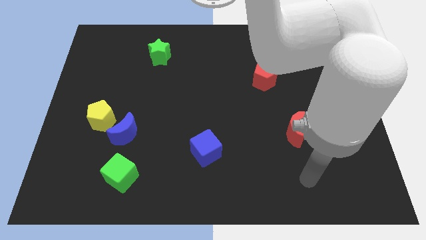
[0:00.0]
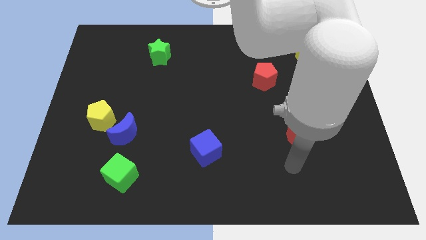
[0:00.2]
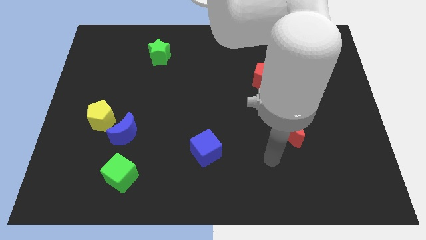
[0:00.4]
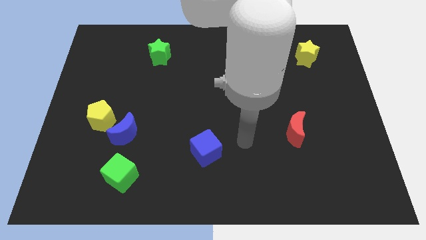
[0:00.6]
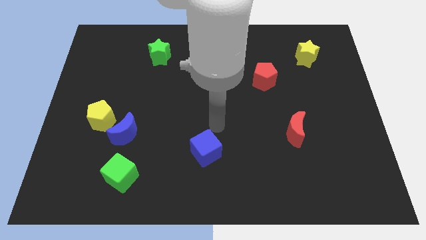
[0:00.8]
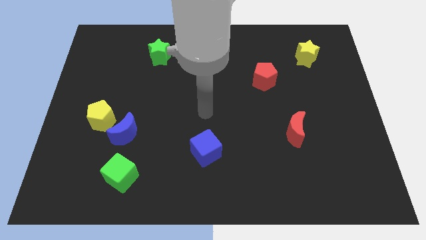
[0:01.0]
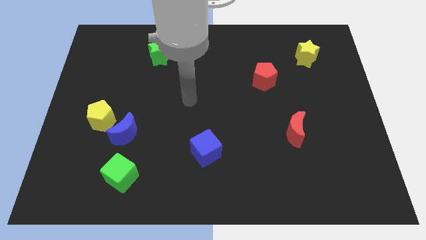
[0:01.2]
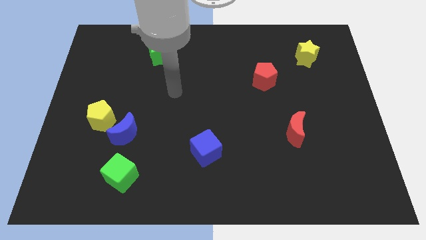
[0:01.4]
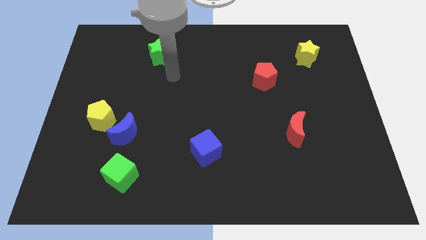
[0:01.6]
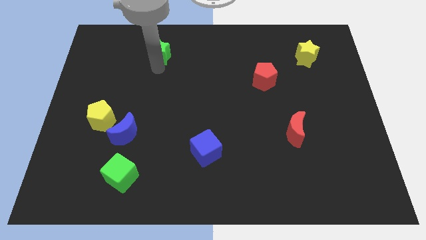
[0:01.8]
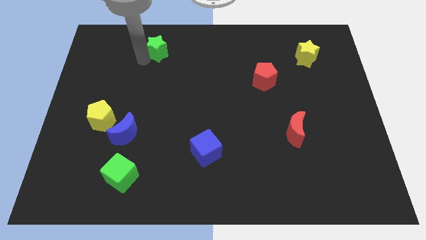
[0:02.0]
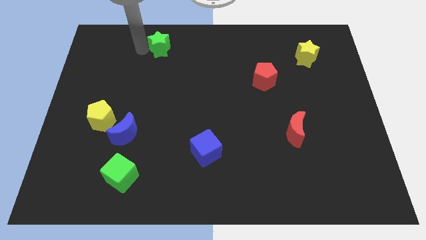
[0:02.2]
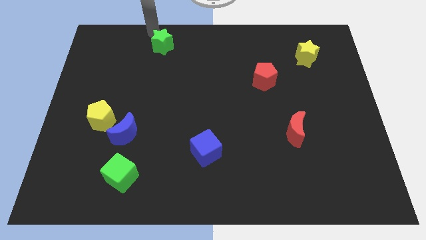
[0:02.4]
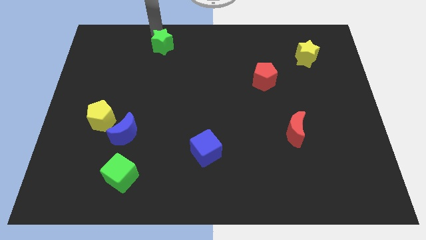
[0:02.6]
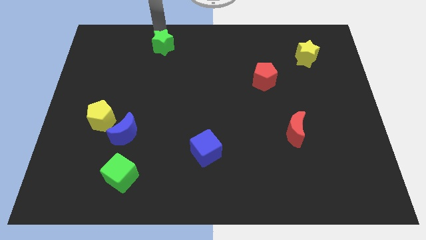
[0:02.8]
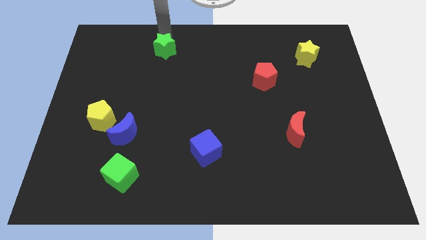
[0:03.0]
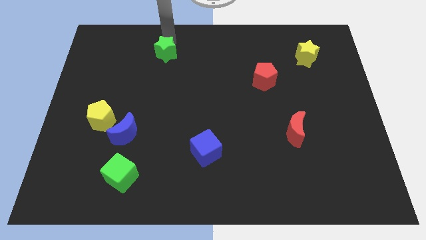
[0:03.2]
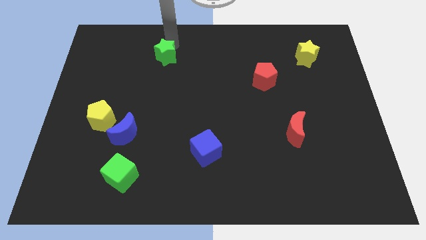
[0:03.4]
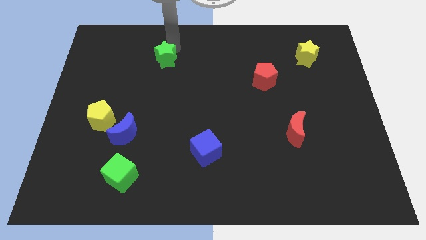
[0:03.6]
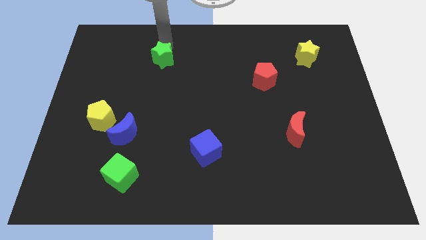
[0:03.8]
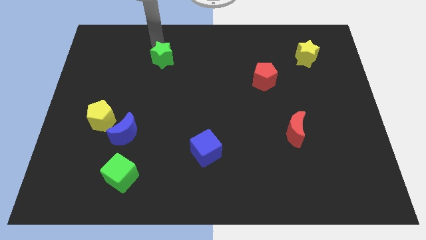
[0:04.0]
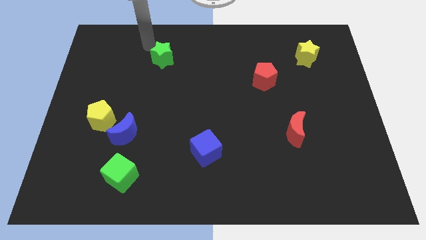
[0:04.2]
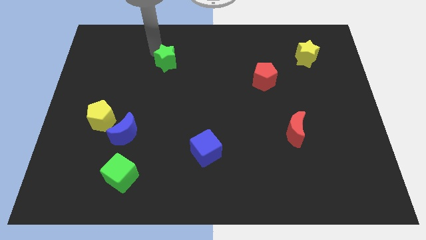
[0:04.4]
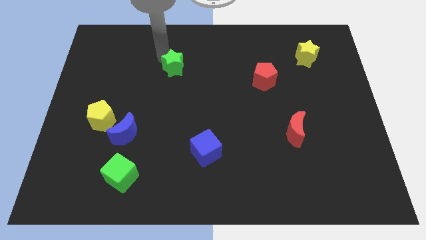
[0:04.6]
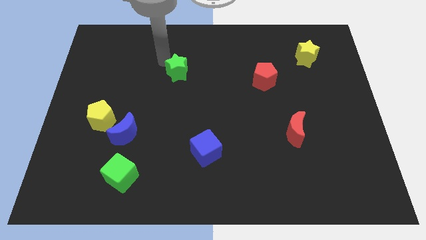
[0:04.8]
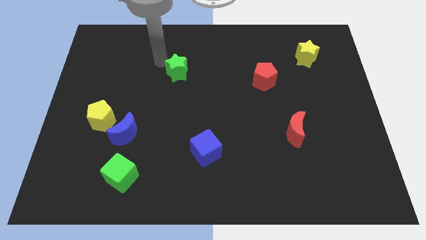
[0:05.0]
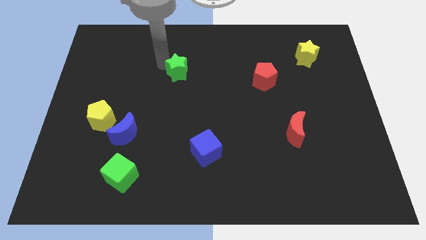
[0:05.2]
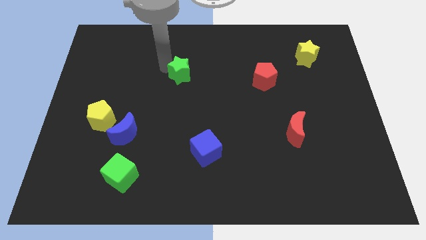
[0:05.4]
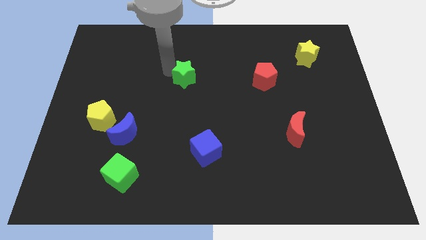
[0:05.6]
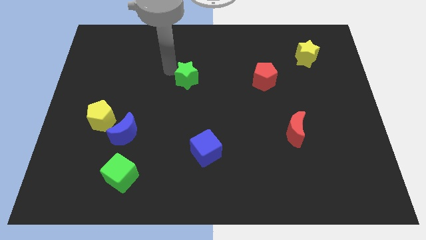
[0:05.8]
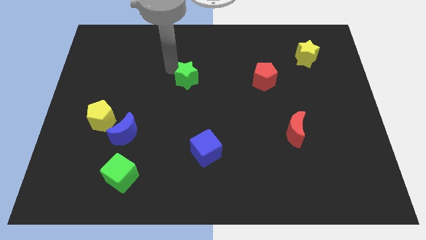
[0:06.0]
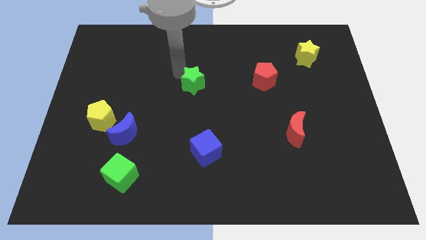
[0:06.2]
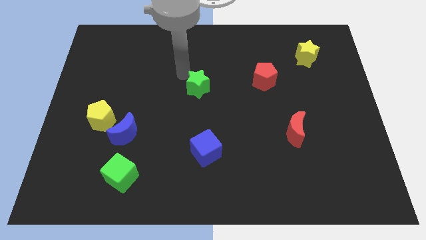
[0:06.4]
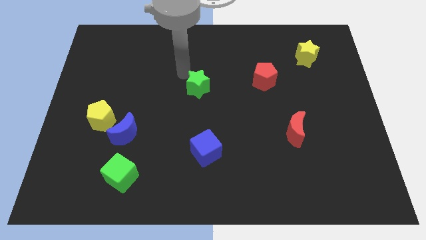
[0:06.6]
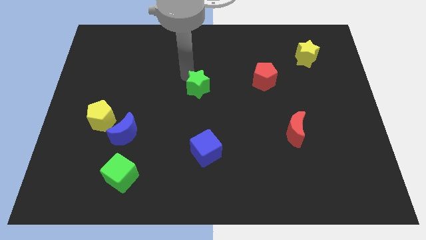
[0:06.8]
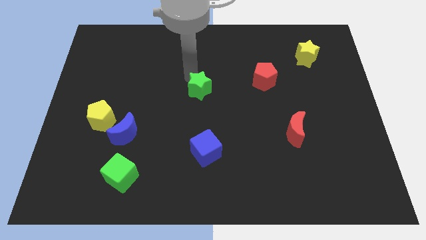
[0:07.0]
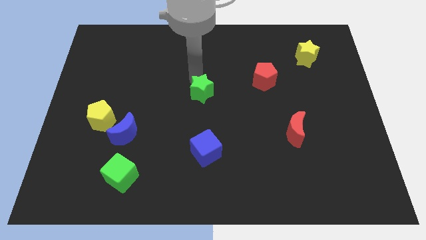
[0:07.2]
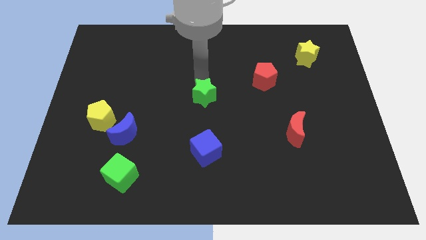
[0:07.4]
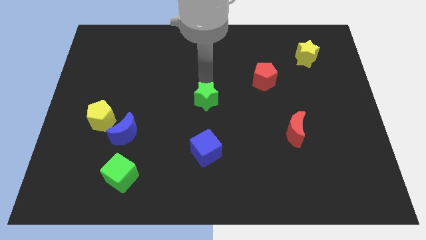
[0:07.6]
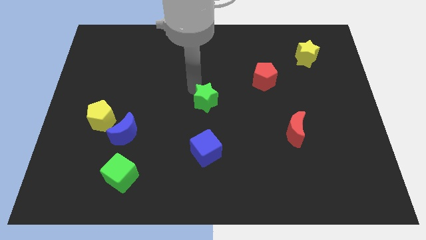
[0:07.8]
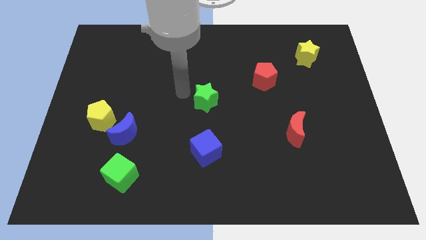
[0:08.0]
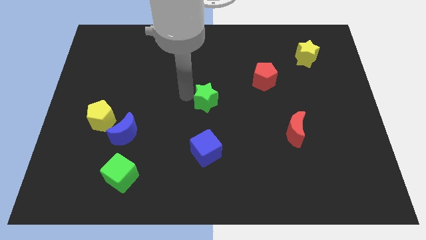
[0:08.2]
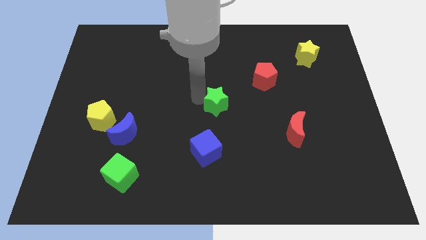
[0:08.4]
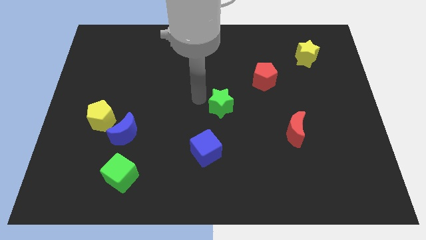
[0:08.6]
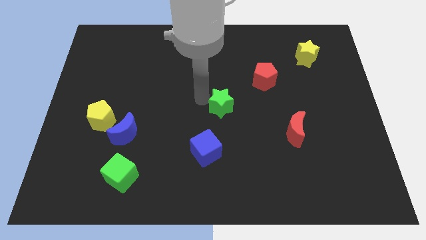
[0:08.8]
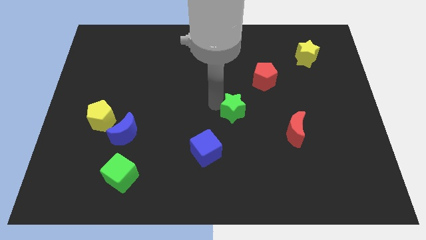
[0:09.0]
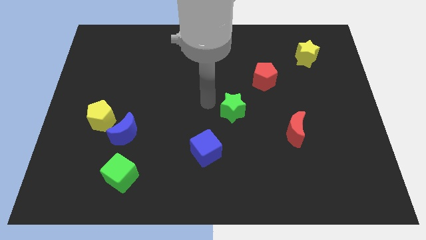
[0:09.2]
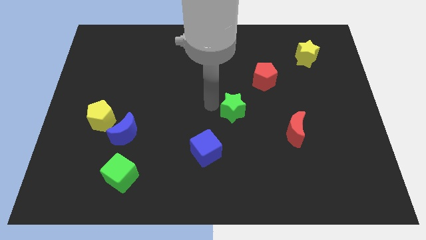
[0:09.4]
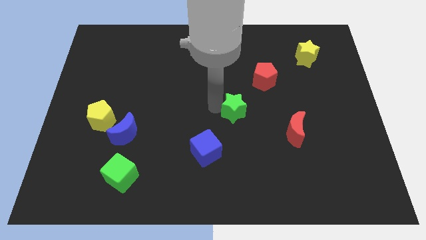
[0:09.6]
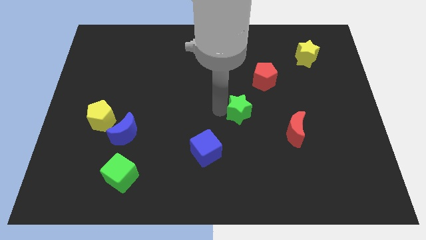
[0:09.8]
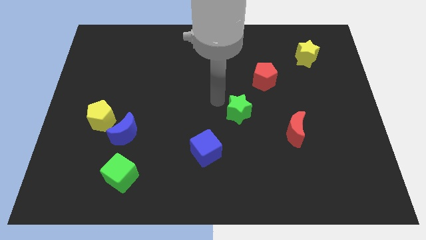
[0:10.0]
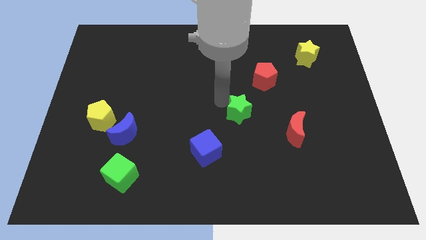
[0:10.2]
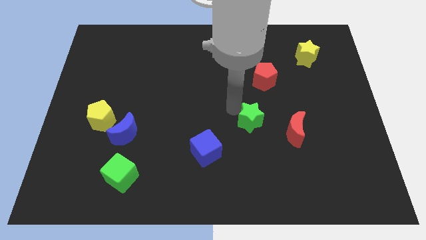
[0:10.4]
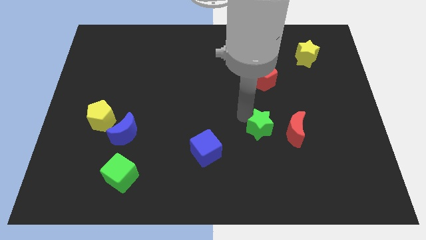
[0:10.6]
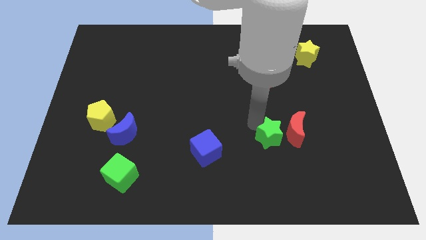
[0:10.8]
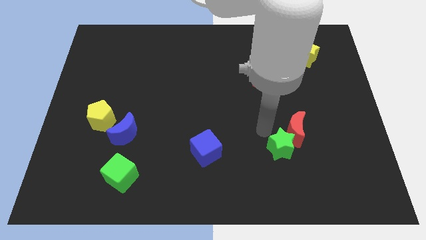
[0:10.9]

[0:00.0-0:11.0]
slide the green star below the red moon

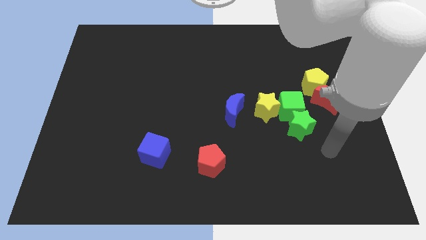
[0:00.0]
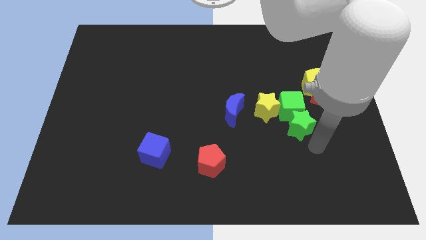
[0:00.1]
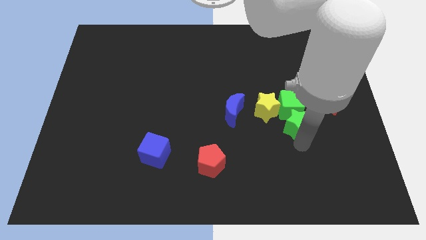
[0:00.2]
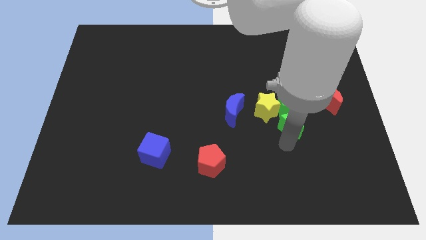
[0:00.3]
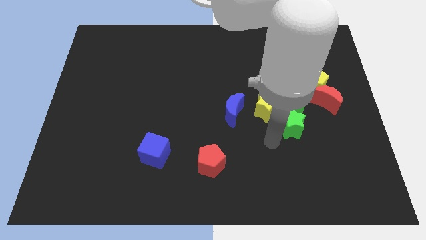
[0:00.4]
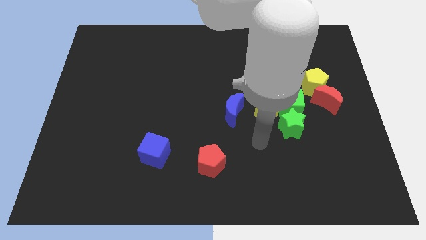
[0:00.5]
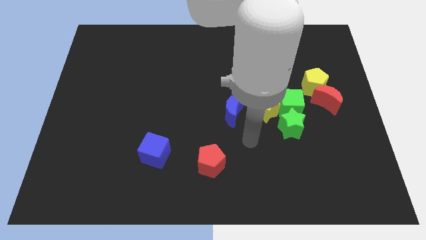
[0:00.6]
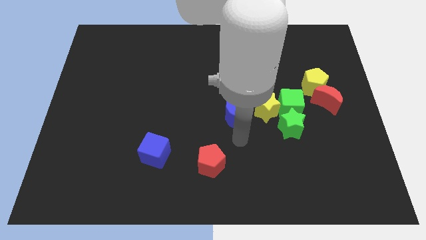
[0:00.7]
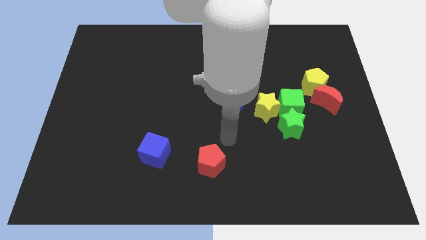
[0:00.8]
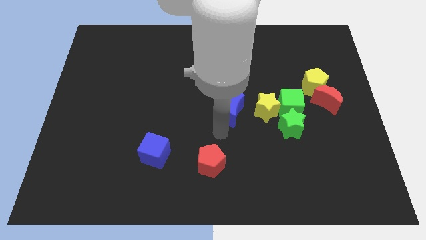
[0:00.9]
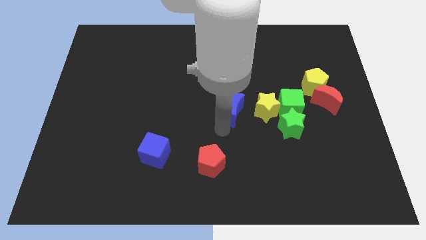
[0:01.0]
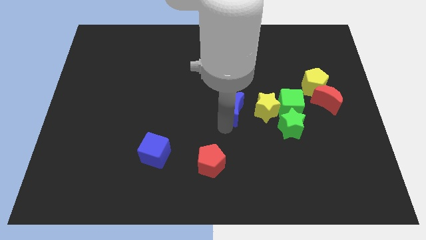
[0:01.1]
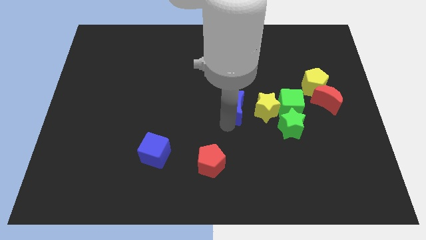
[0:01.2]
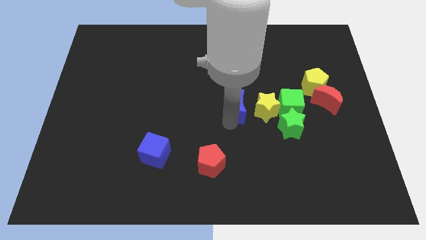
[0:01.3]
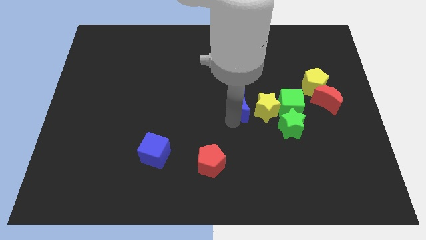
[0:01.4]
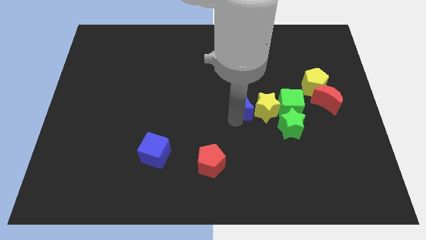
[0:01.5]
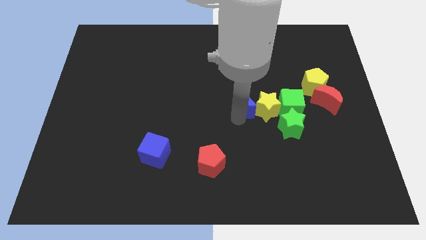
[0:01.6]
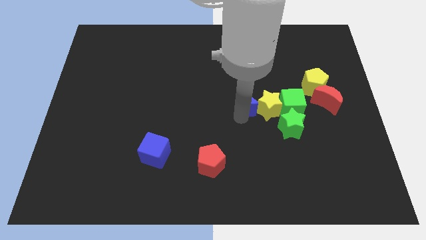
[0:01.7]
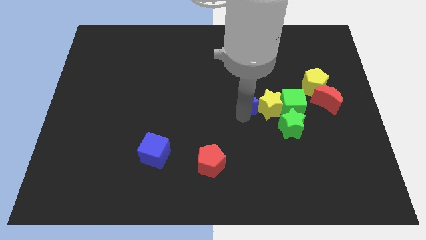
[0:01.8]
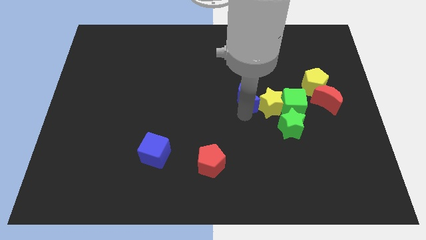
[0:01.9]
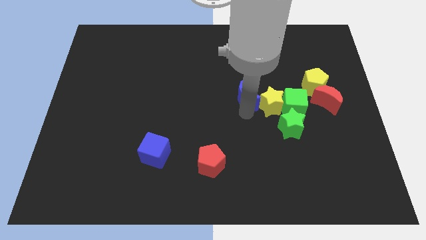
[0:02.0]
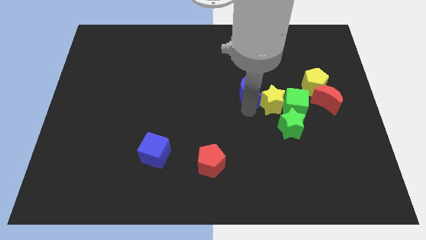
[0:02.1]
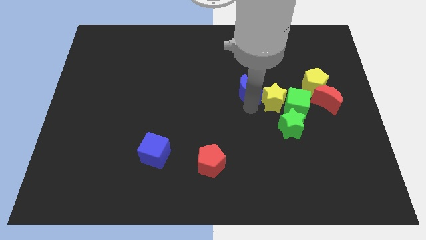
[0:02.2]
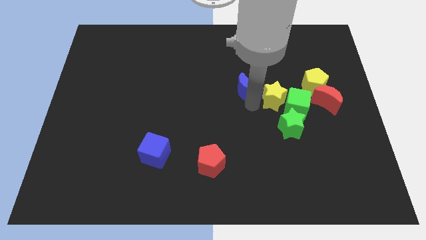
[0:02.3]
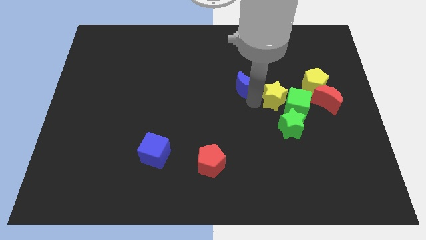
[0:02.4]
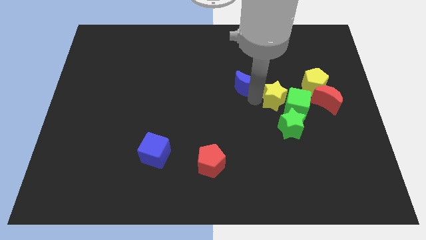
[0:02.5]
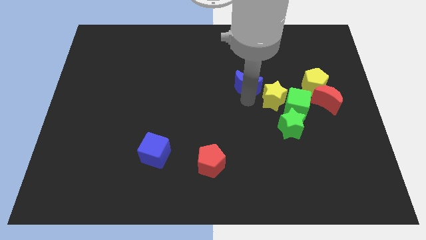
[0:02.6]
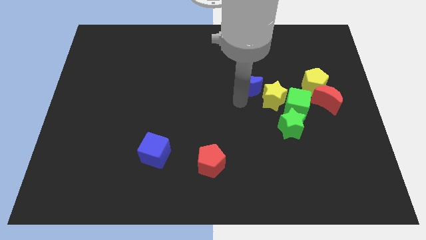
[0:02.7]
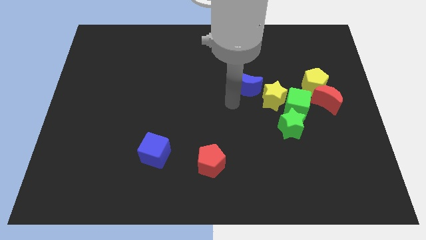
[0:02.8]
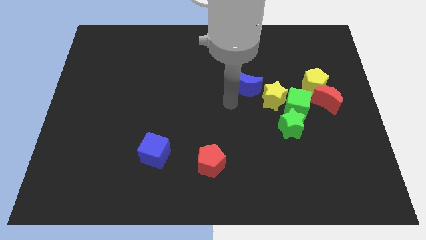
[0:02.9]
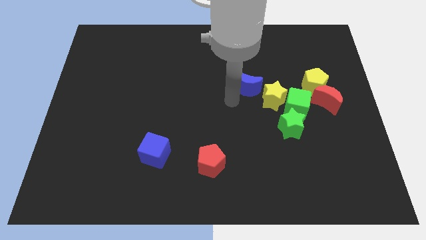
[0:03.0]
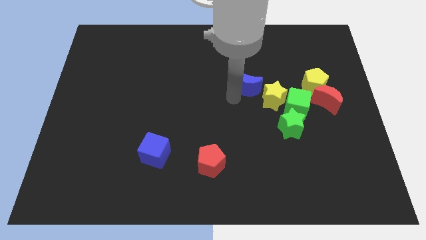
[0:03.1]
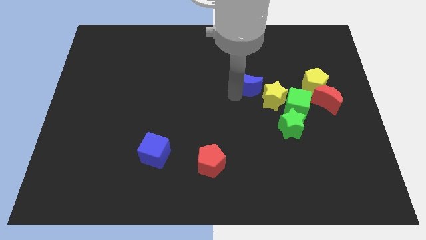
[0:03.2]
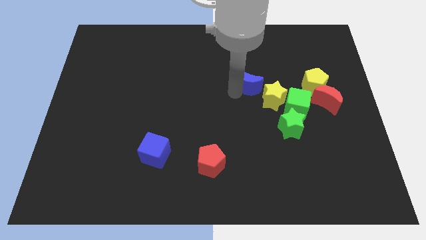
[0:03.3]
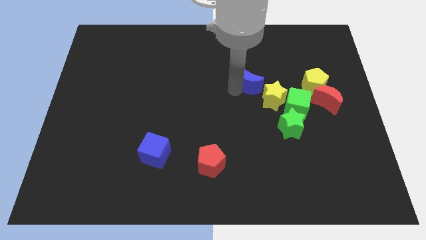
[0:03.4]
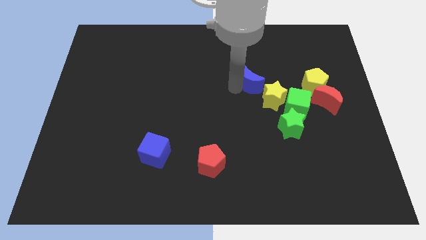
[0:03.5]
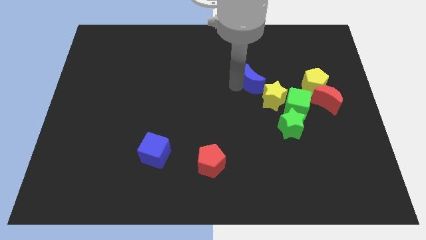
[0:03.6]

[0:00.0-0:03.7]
slide the blue moon to the top side of the yellow star
